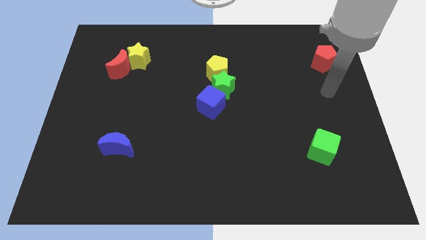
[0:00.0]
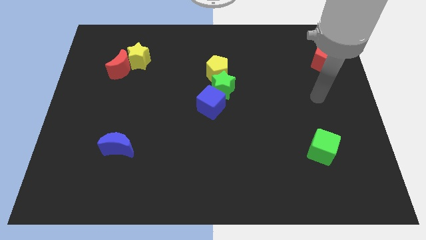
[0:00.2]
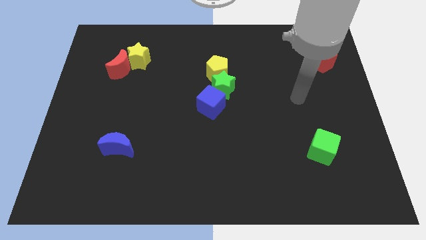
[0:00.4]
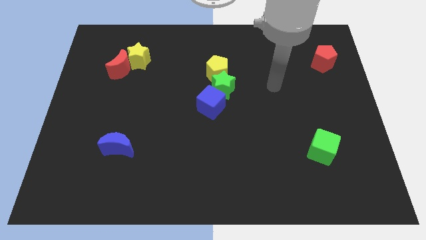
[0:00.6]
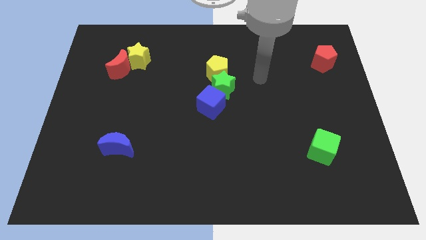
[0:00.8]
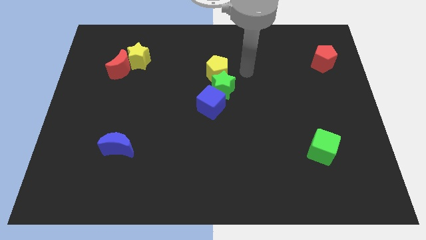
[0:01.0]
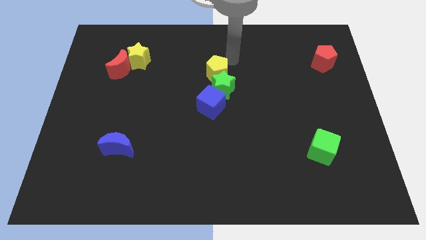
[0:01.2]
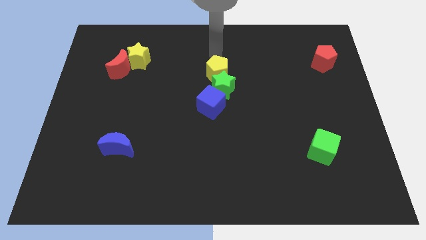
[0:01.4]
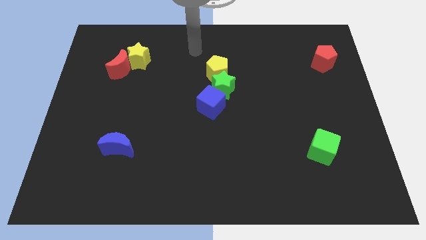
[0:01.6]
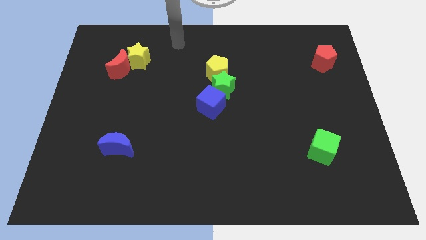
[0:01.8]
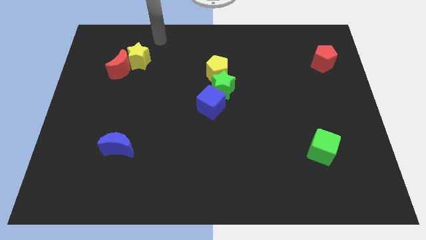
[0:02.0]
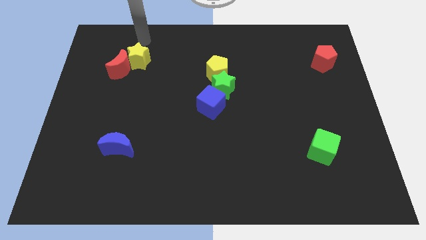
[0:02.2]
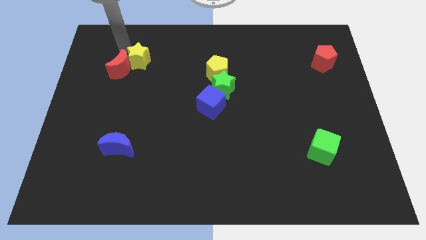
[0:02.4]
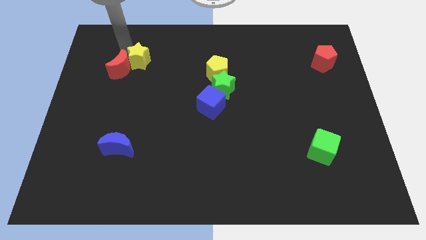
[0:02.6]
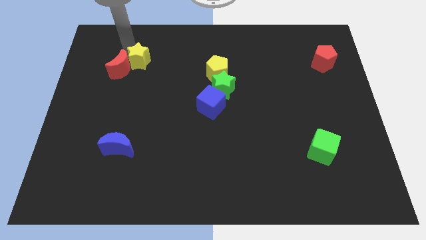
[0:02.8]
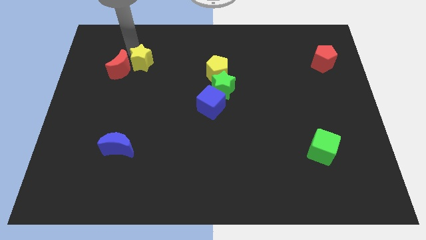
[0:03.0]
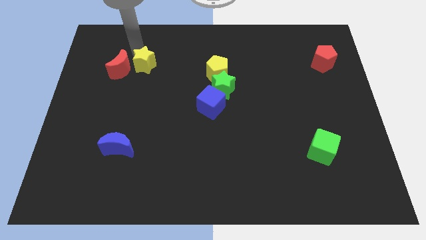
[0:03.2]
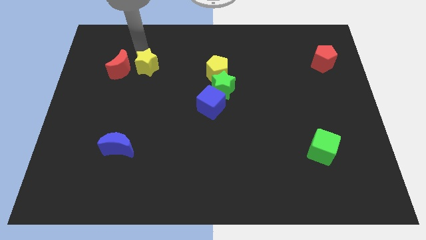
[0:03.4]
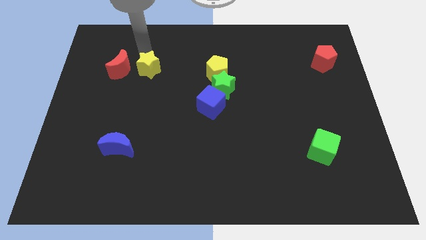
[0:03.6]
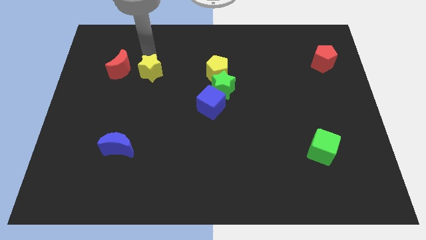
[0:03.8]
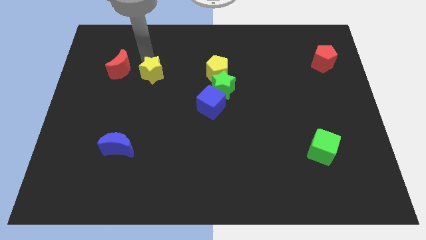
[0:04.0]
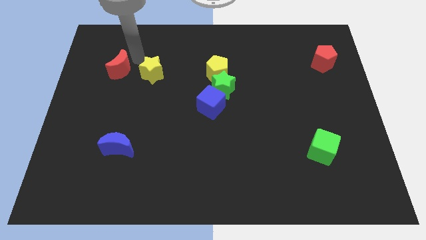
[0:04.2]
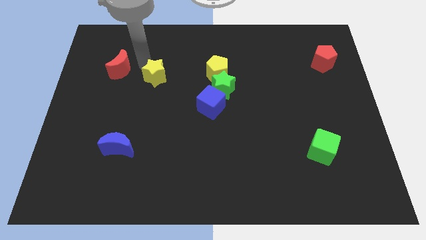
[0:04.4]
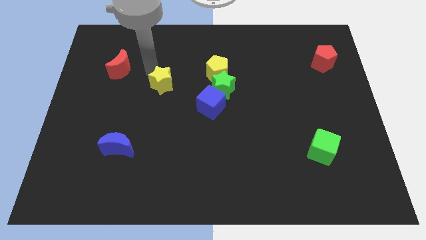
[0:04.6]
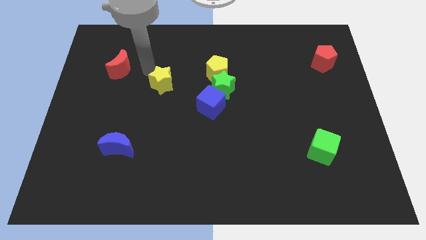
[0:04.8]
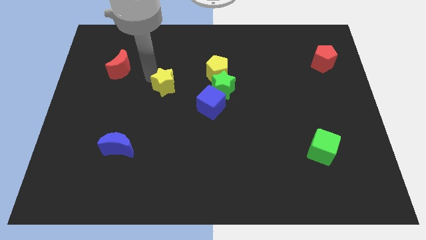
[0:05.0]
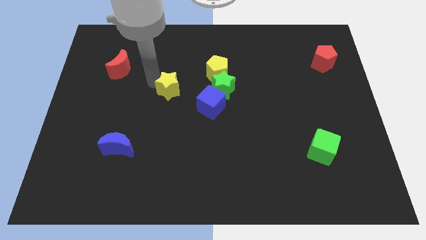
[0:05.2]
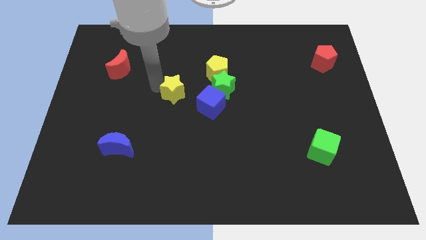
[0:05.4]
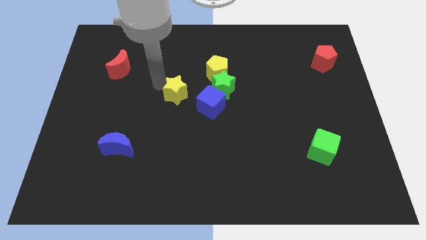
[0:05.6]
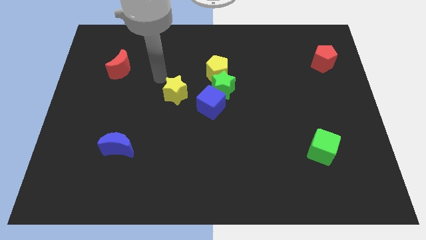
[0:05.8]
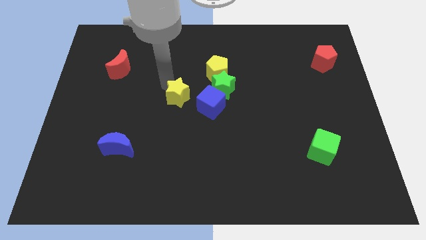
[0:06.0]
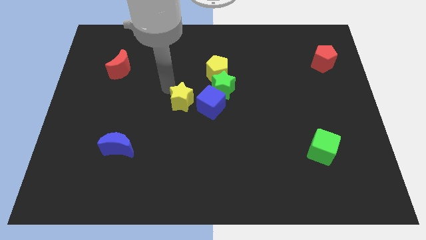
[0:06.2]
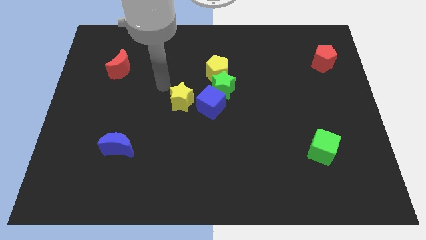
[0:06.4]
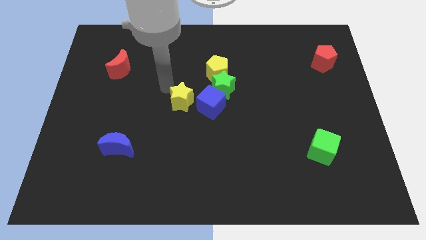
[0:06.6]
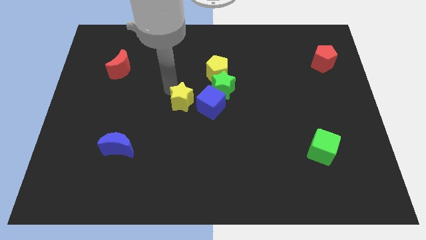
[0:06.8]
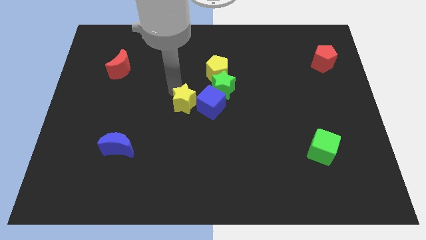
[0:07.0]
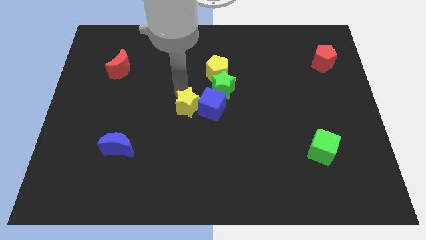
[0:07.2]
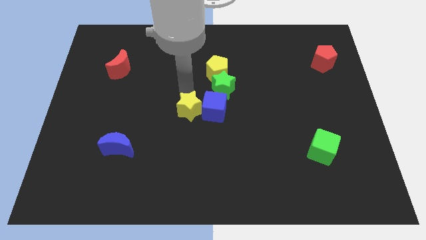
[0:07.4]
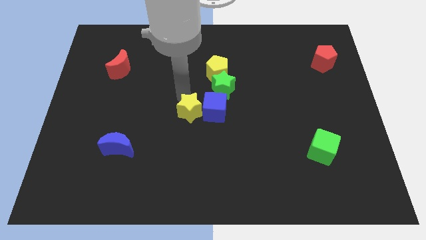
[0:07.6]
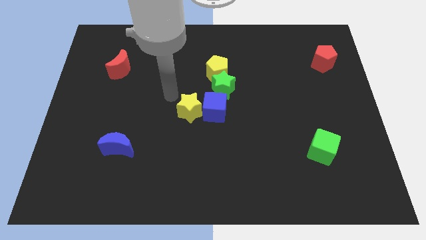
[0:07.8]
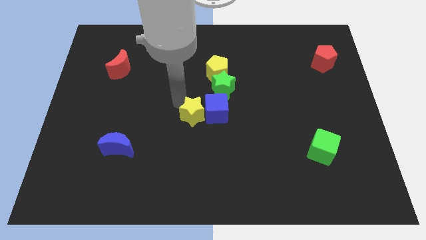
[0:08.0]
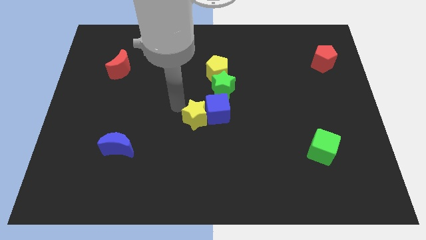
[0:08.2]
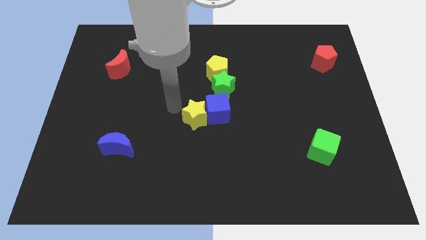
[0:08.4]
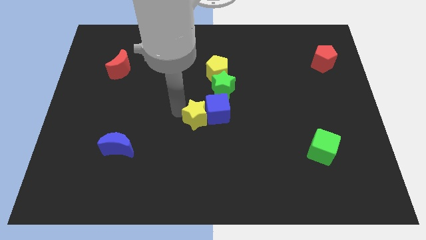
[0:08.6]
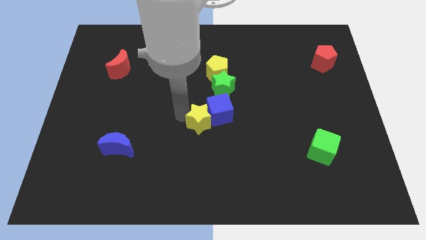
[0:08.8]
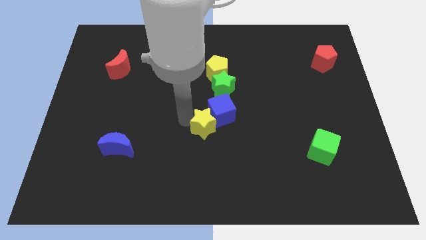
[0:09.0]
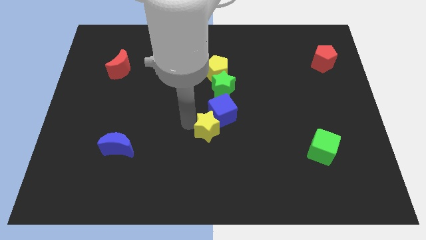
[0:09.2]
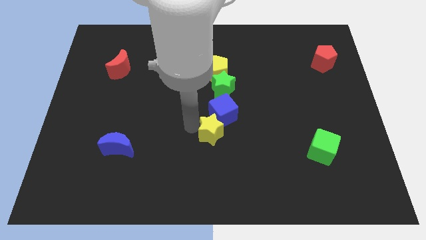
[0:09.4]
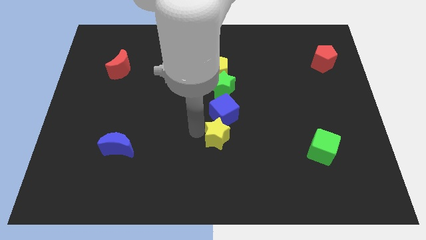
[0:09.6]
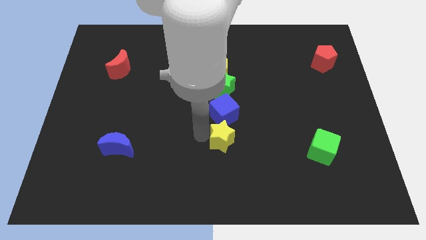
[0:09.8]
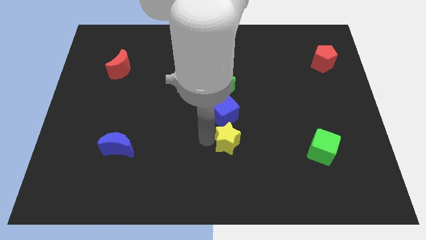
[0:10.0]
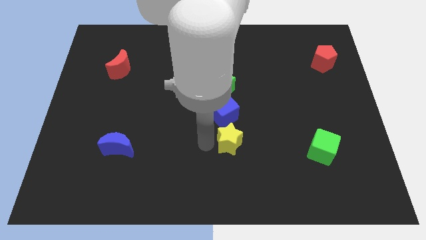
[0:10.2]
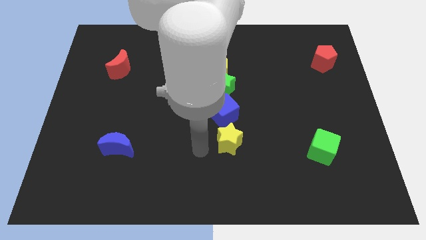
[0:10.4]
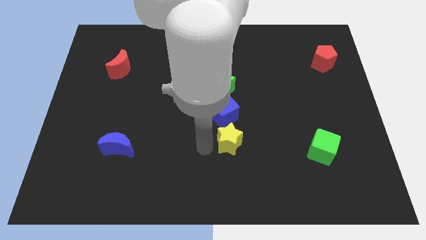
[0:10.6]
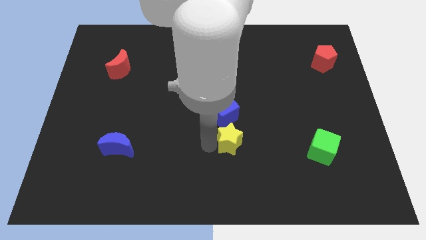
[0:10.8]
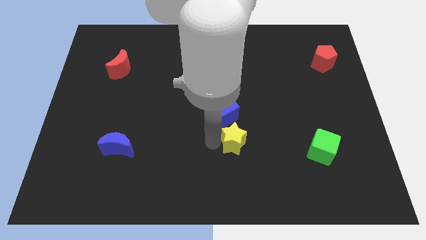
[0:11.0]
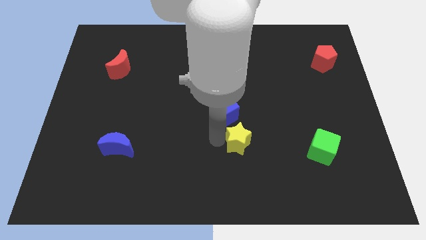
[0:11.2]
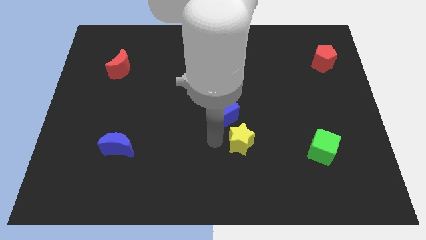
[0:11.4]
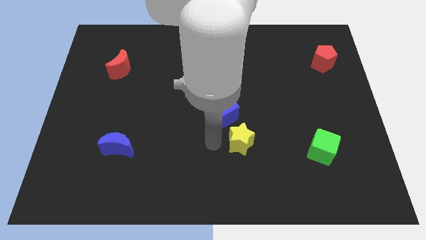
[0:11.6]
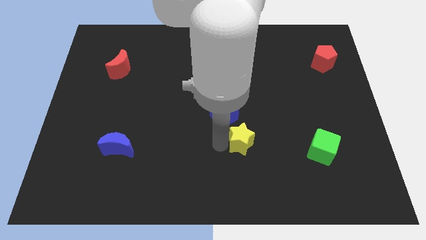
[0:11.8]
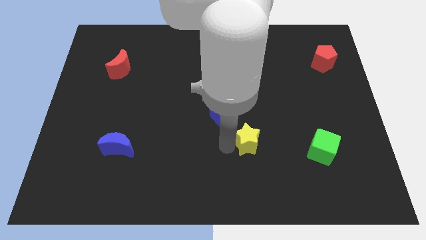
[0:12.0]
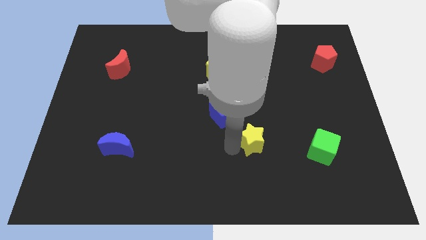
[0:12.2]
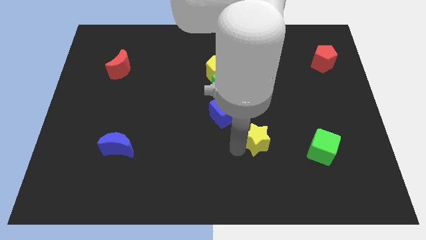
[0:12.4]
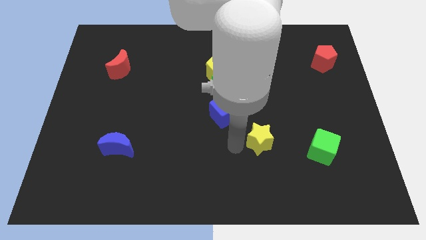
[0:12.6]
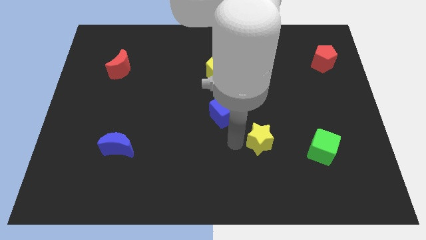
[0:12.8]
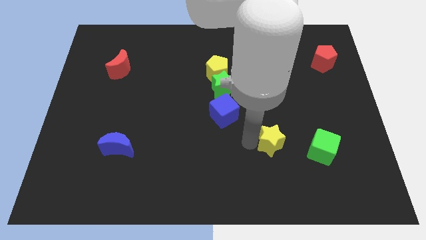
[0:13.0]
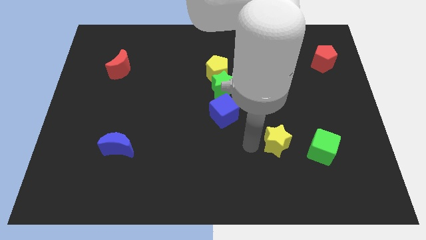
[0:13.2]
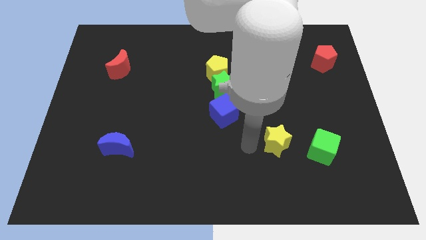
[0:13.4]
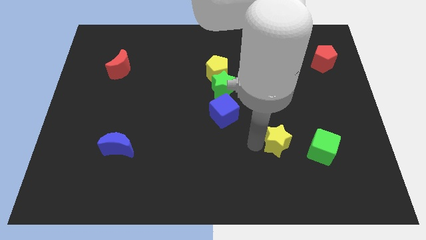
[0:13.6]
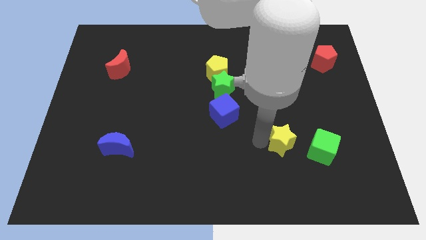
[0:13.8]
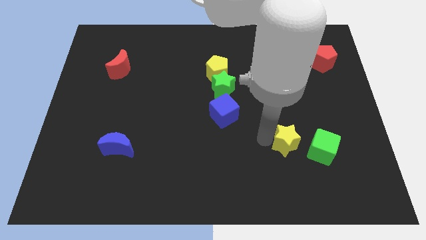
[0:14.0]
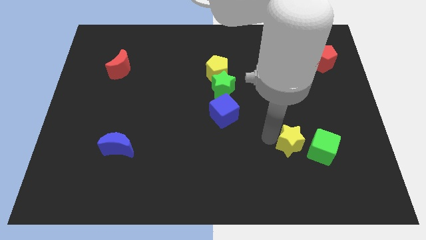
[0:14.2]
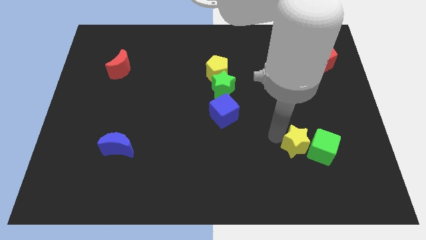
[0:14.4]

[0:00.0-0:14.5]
put the yellow star to the green cube
